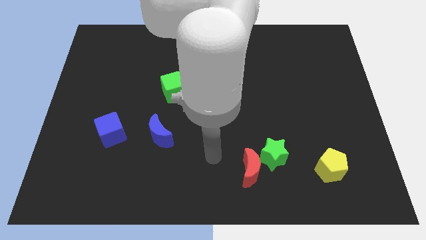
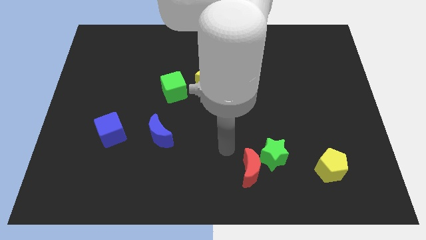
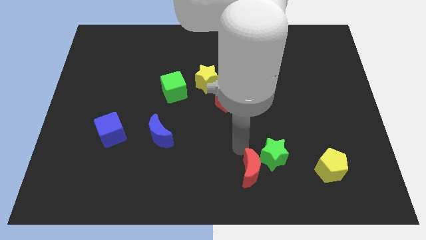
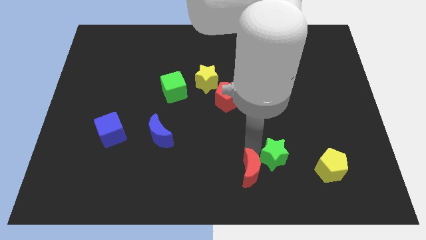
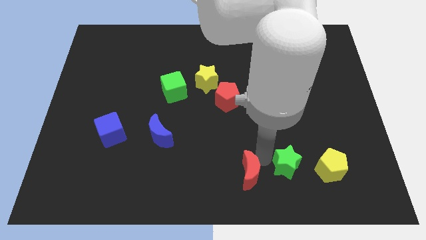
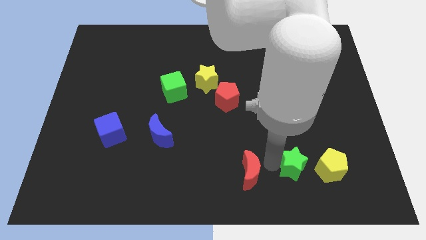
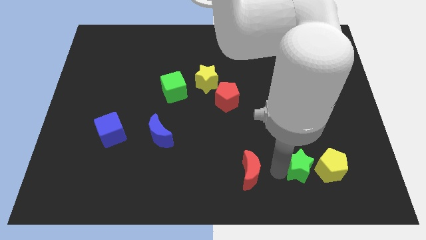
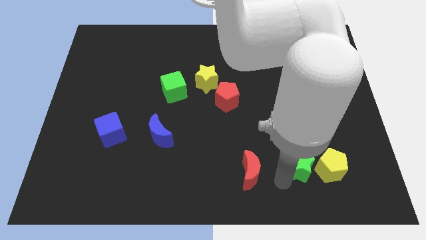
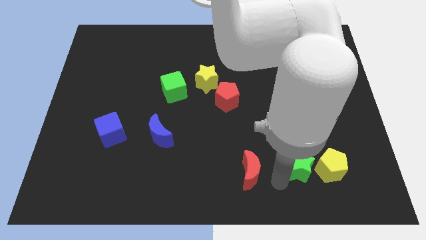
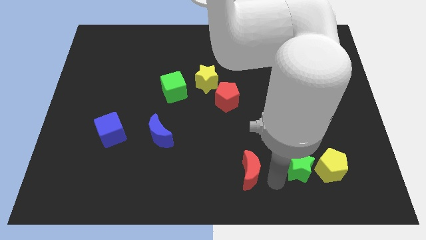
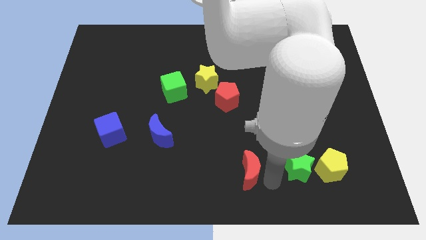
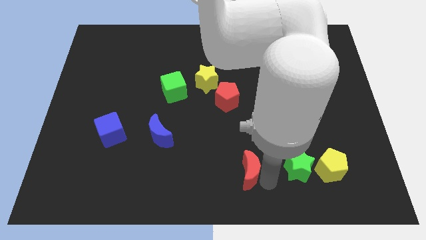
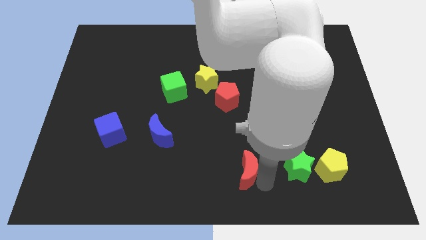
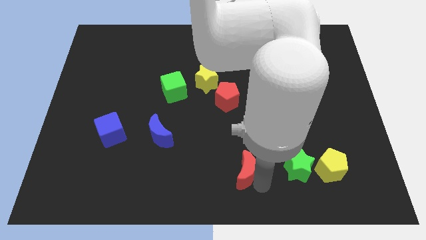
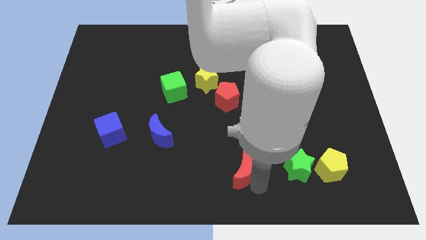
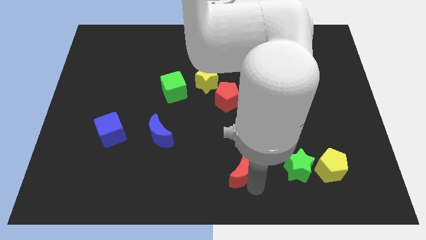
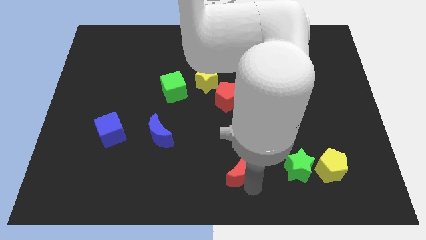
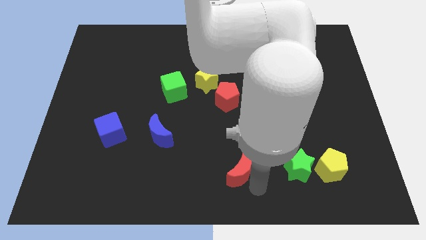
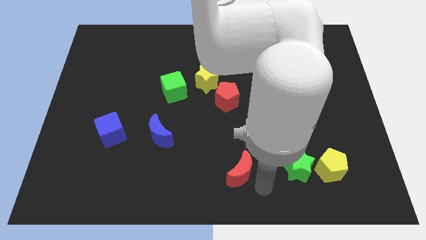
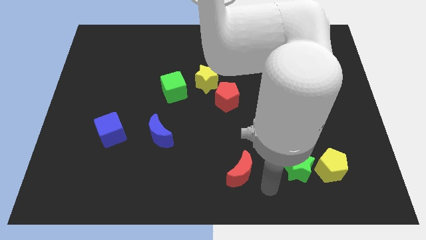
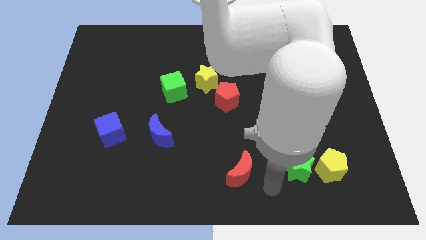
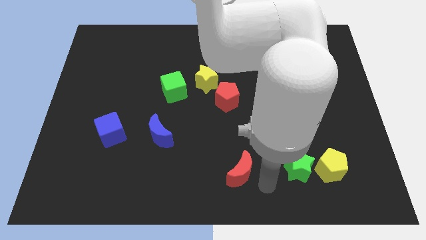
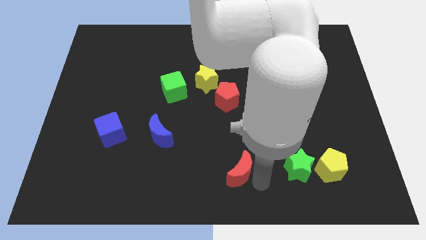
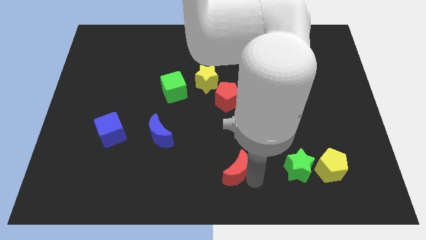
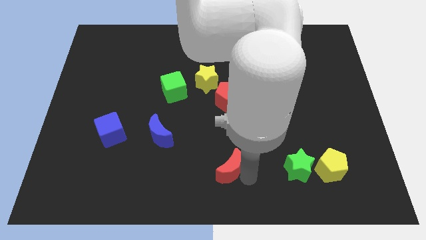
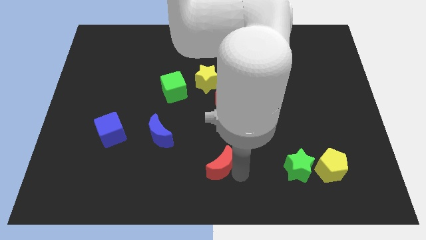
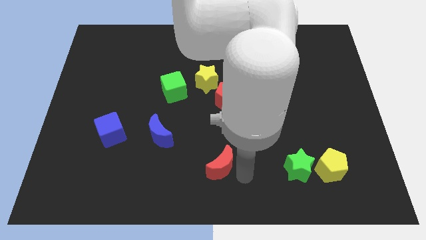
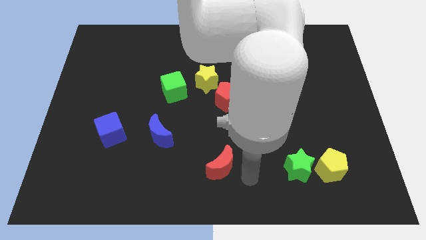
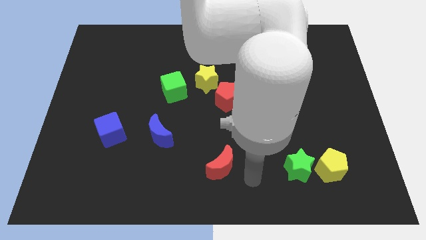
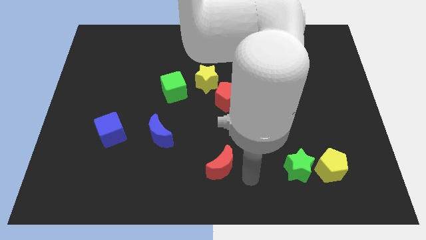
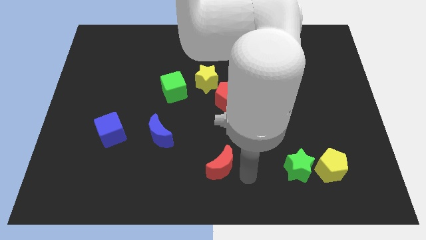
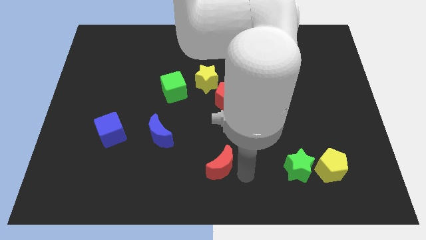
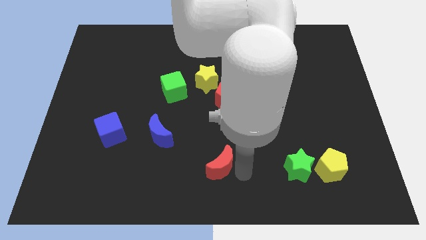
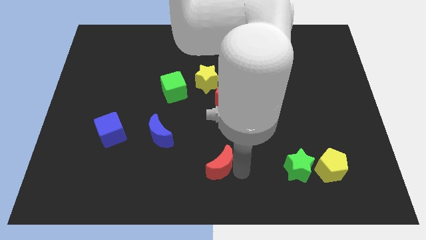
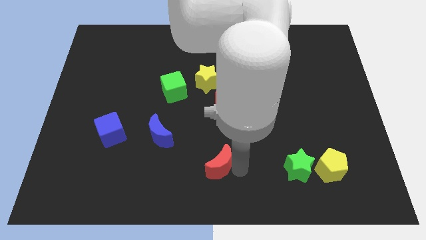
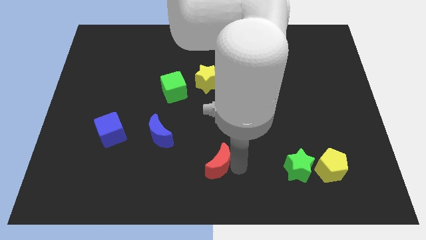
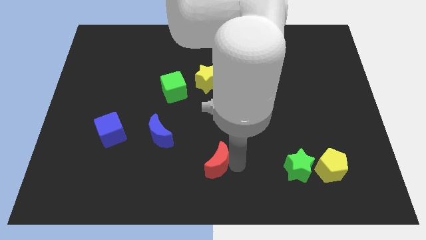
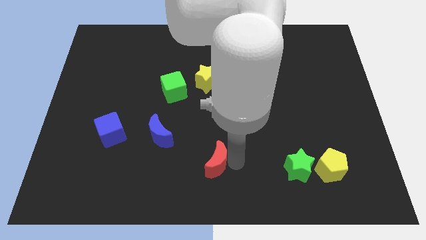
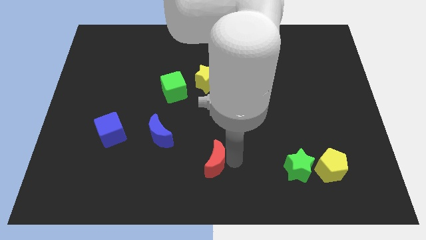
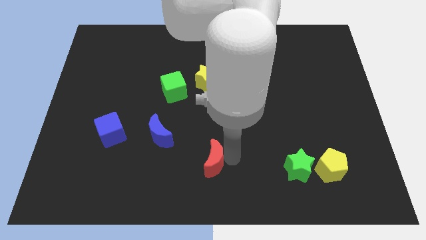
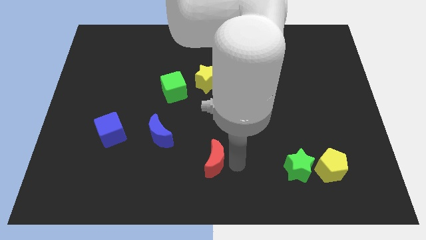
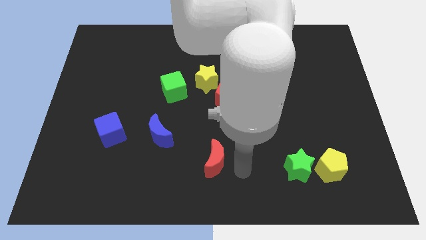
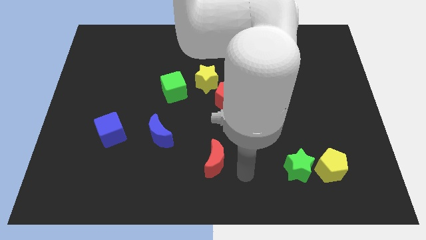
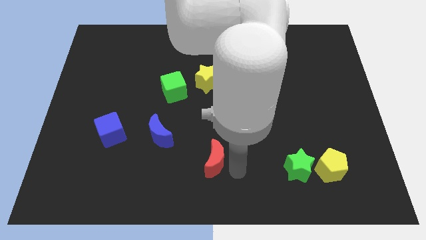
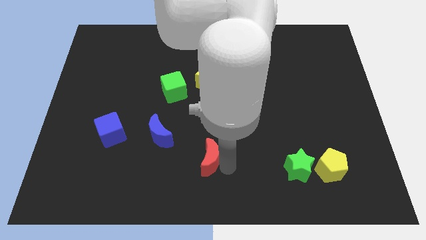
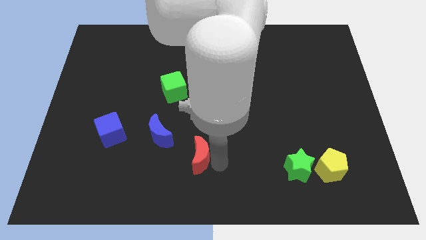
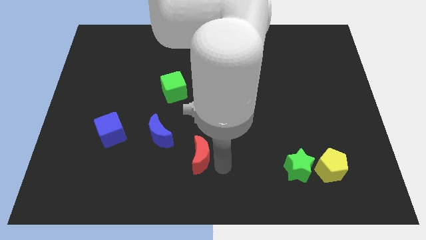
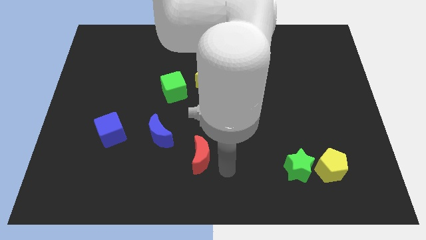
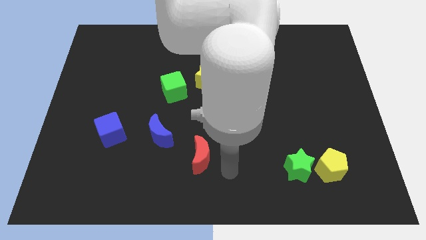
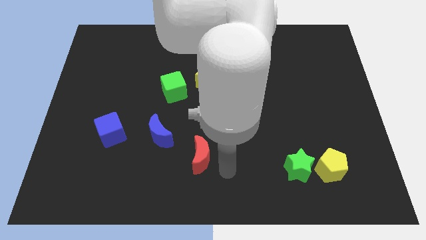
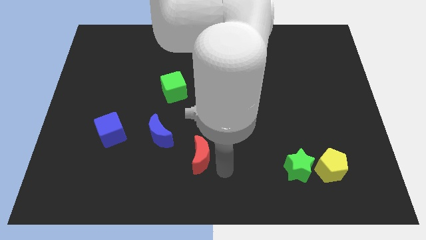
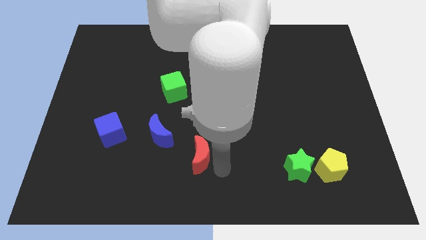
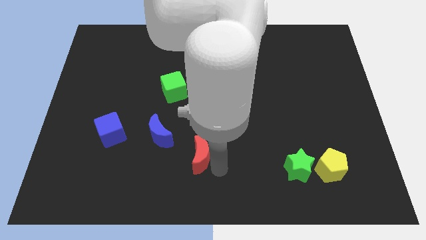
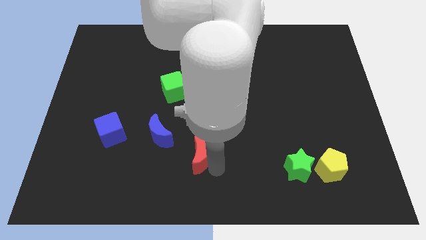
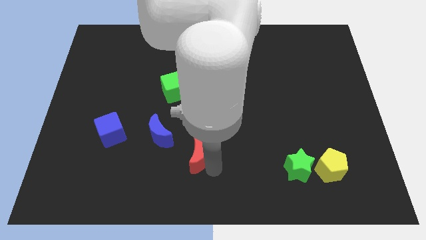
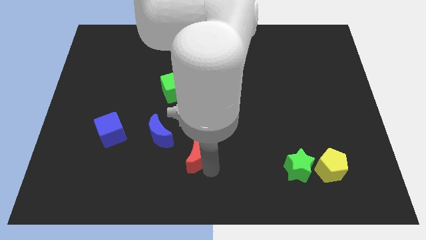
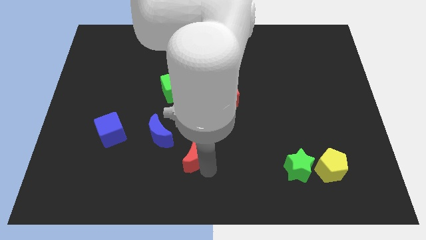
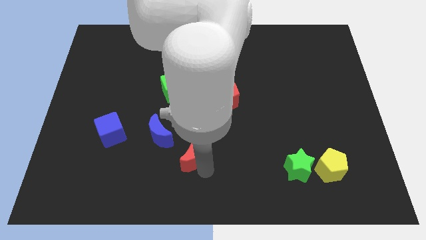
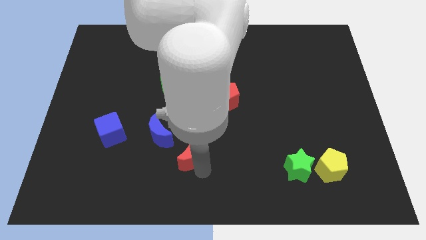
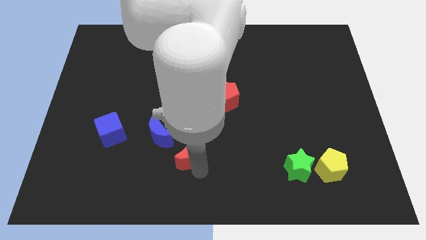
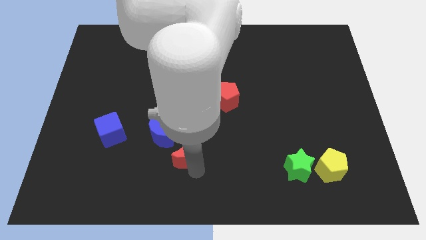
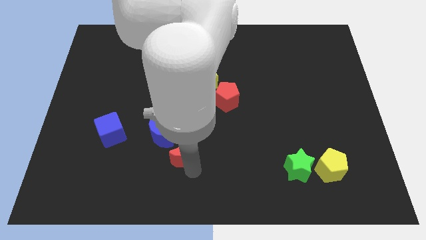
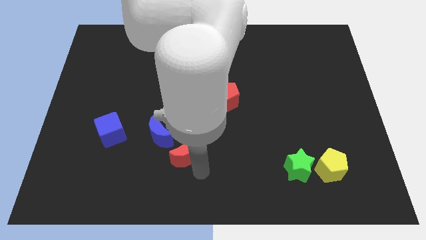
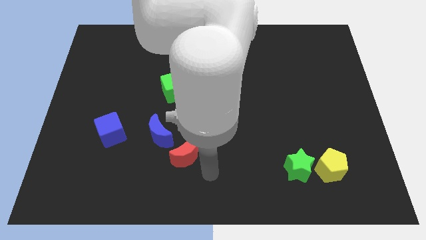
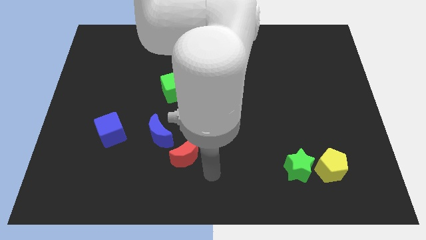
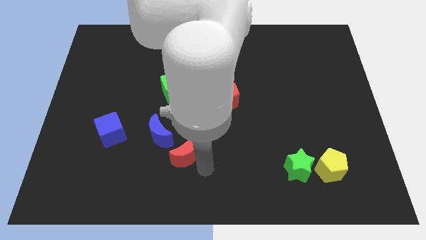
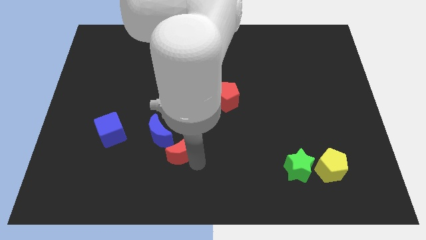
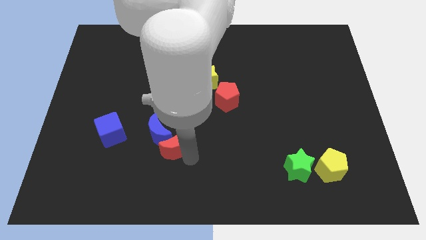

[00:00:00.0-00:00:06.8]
slide the red moon next to the blue moon

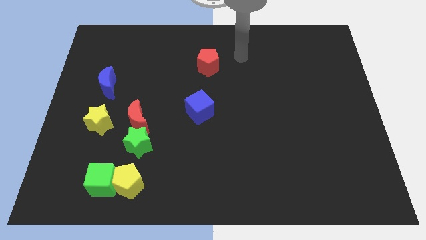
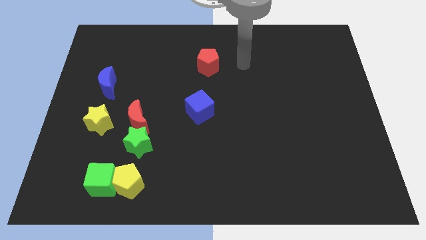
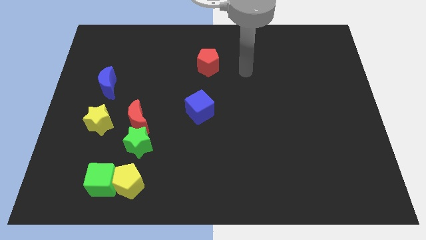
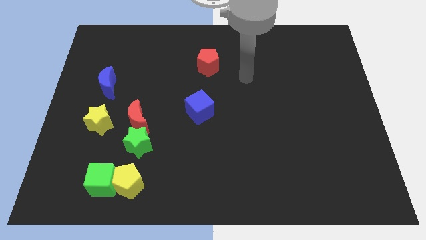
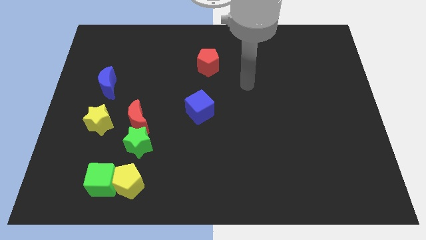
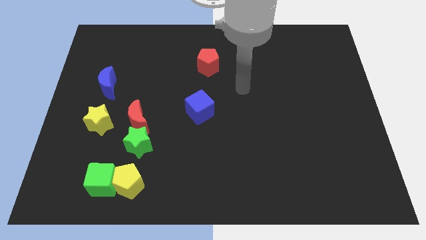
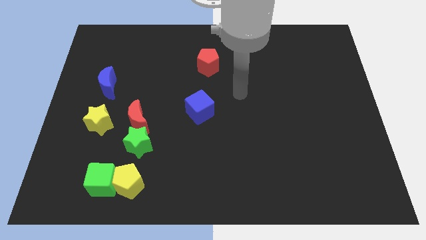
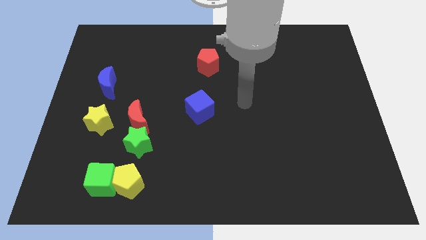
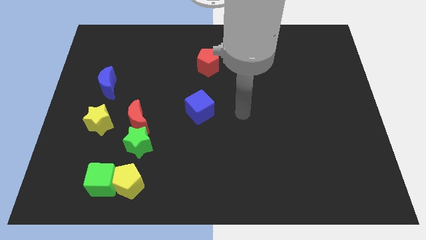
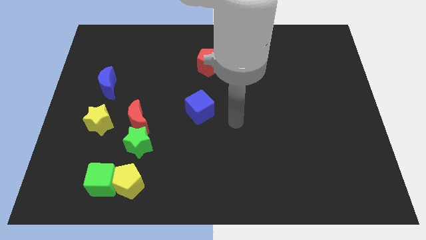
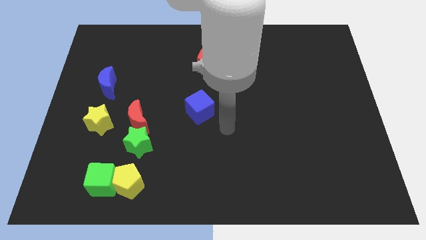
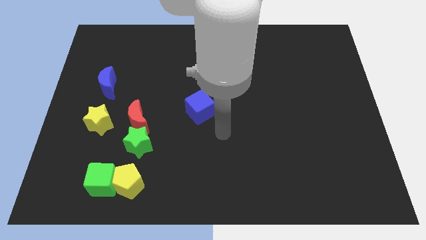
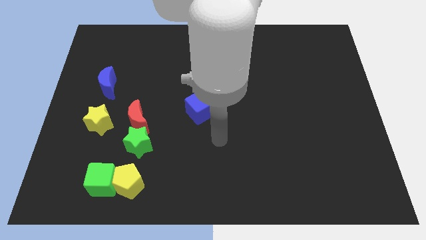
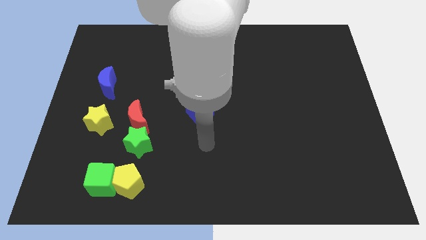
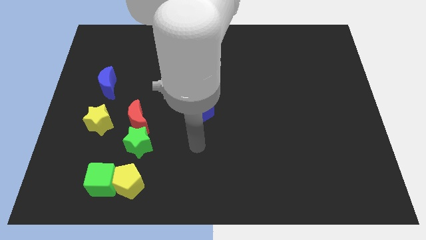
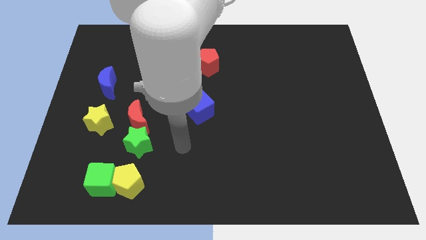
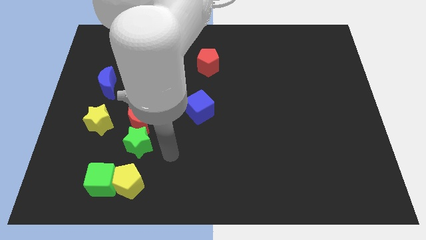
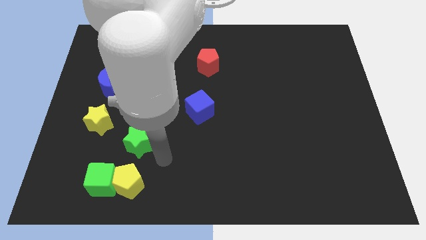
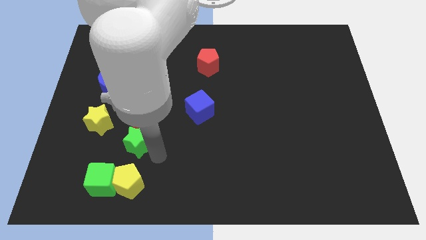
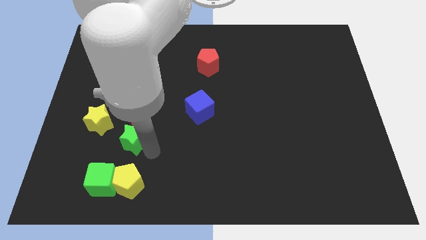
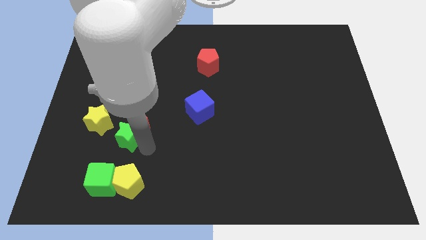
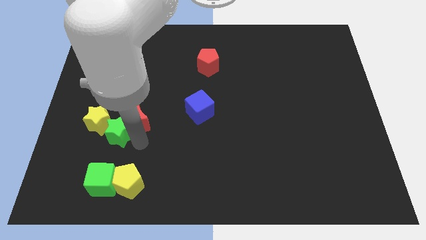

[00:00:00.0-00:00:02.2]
slide the green star to the yellow star
